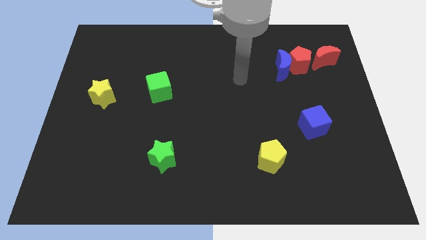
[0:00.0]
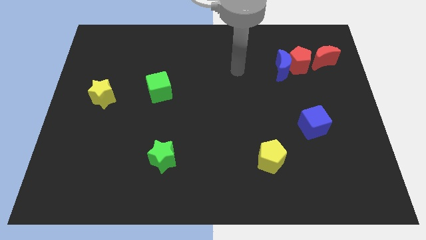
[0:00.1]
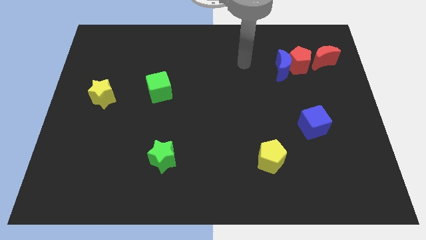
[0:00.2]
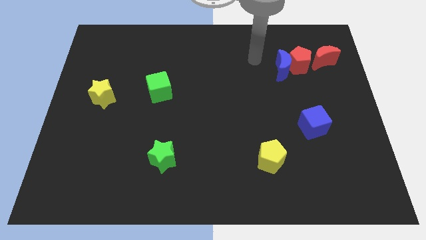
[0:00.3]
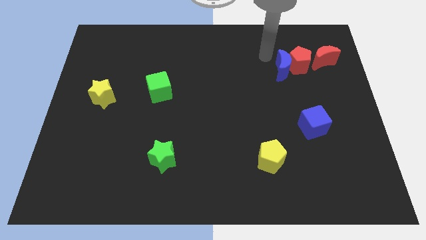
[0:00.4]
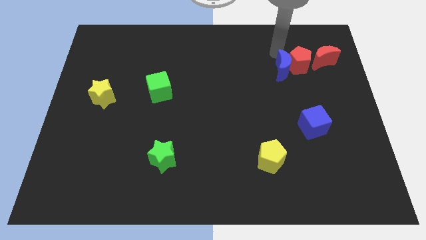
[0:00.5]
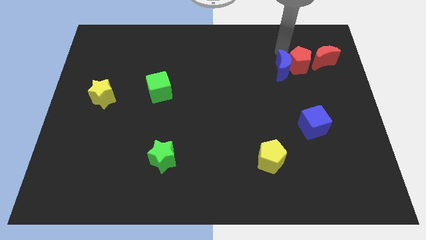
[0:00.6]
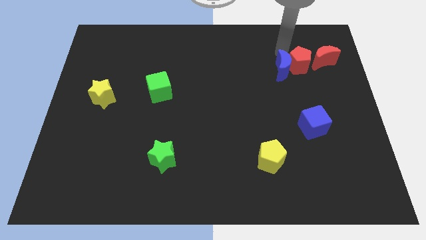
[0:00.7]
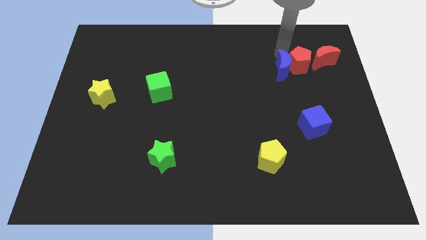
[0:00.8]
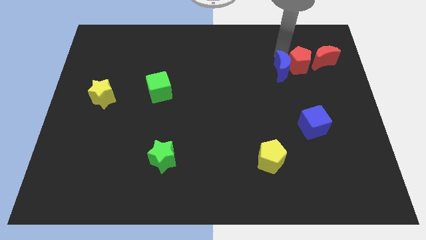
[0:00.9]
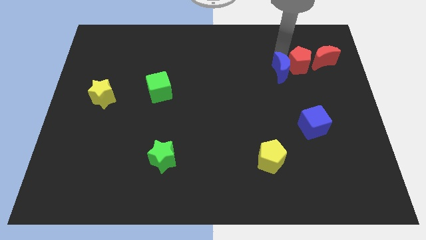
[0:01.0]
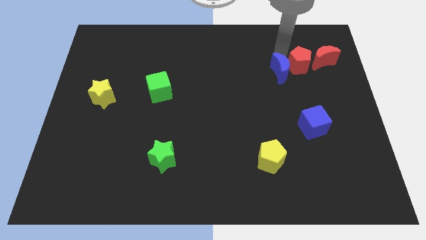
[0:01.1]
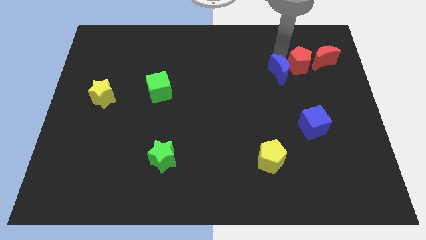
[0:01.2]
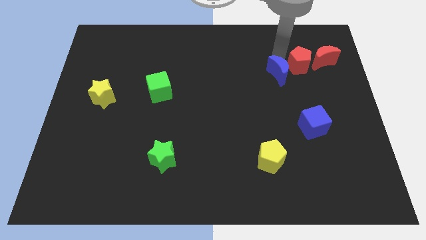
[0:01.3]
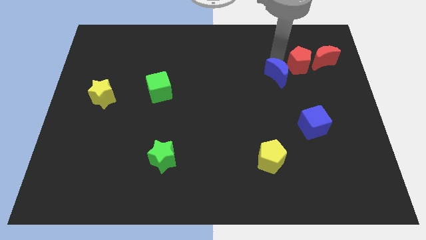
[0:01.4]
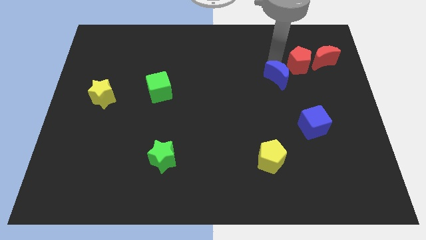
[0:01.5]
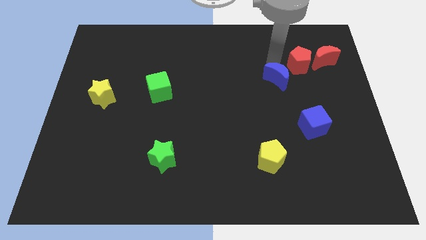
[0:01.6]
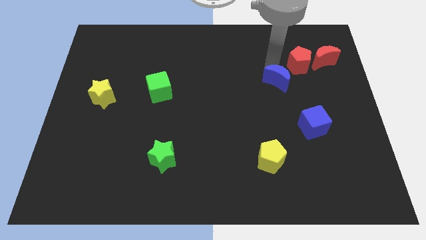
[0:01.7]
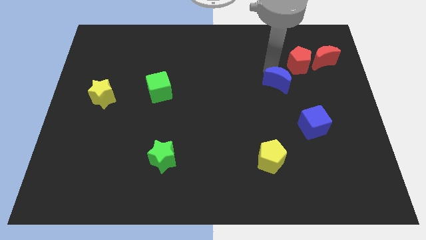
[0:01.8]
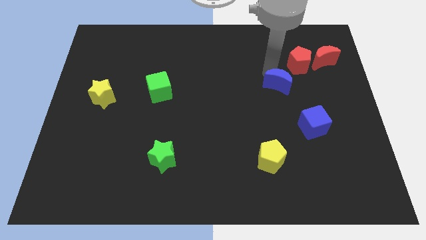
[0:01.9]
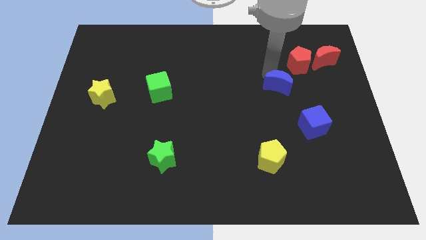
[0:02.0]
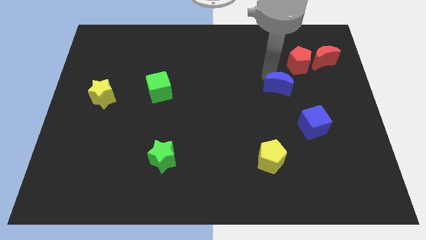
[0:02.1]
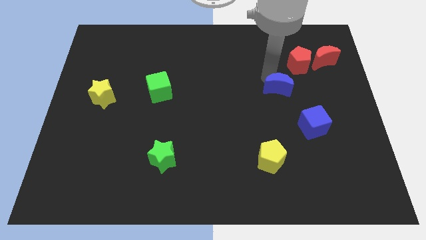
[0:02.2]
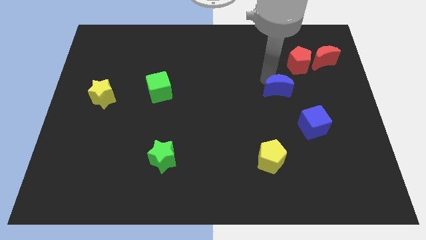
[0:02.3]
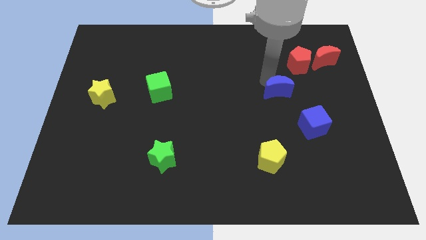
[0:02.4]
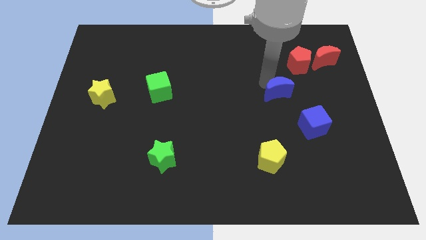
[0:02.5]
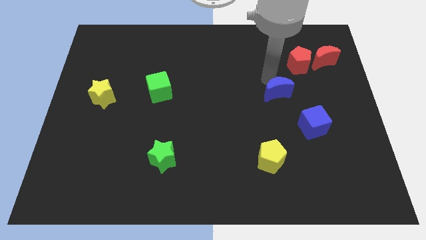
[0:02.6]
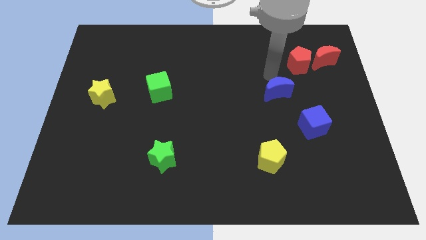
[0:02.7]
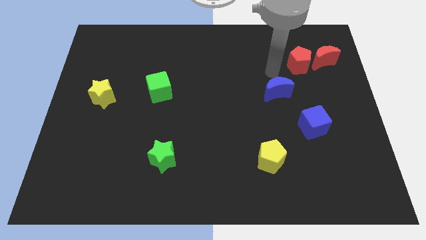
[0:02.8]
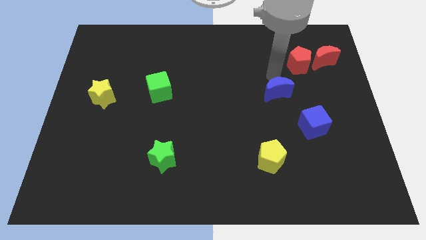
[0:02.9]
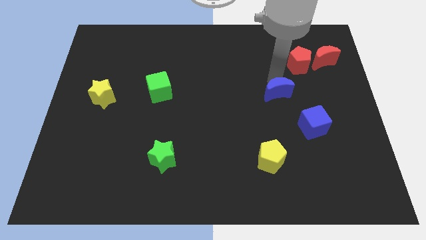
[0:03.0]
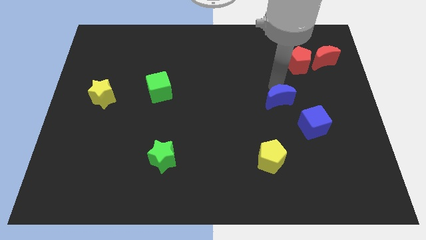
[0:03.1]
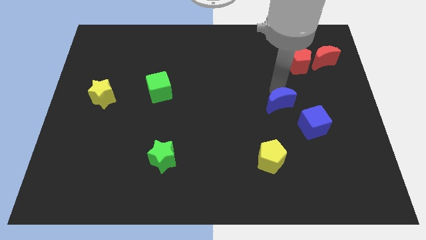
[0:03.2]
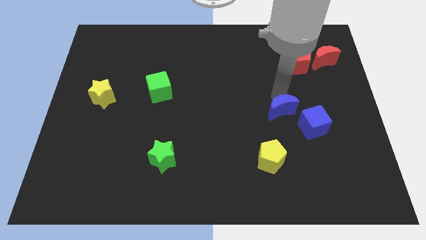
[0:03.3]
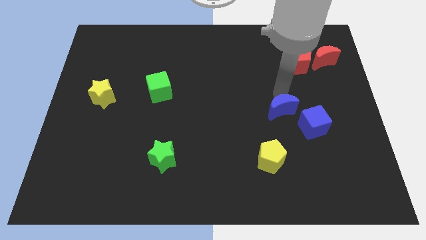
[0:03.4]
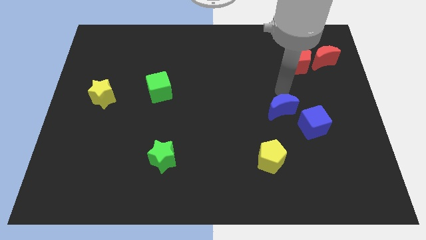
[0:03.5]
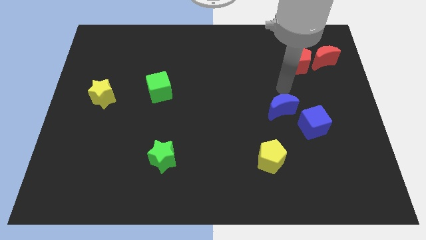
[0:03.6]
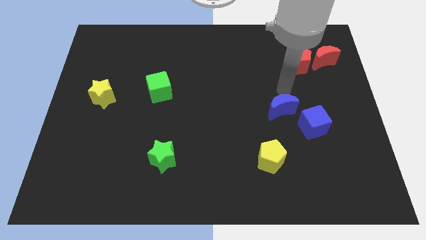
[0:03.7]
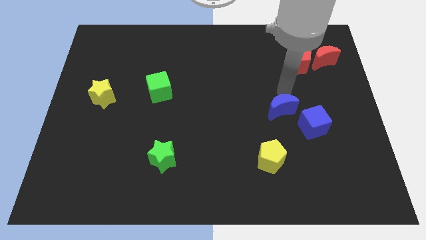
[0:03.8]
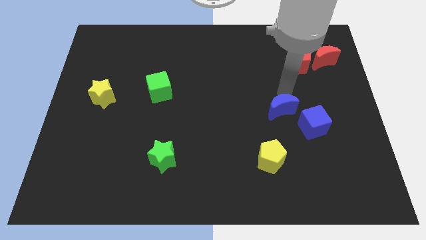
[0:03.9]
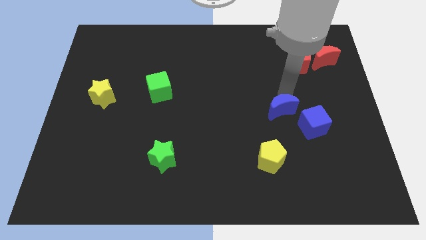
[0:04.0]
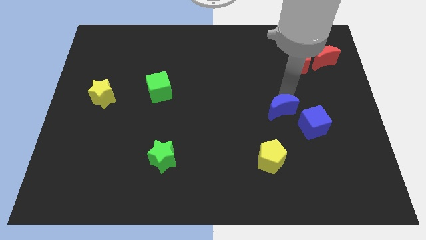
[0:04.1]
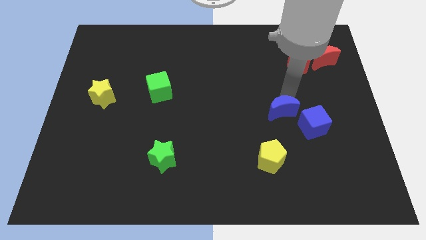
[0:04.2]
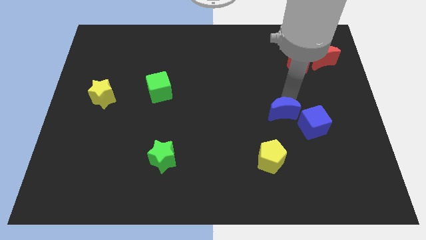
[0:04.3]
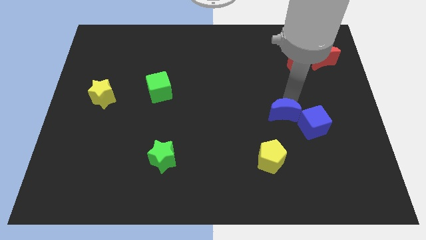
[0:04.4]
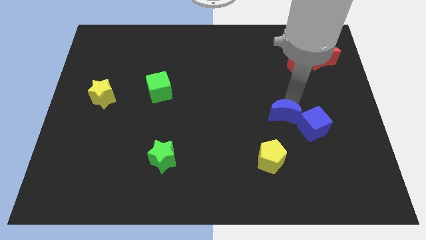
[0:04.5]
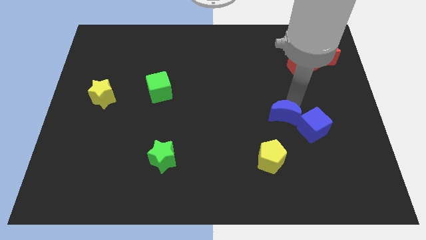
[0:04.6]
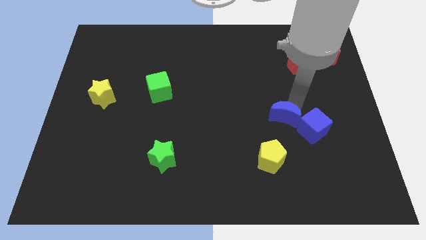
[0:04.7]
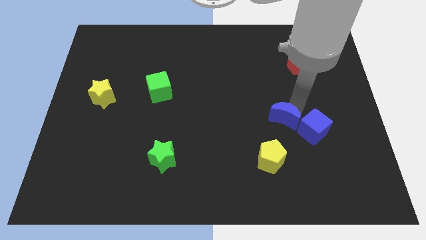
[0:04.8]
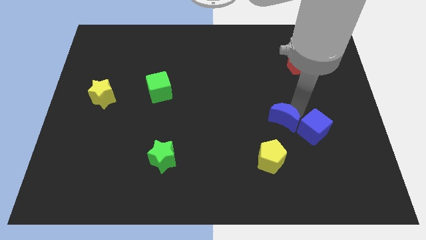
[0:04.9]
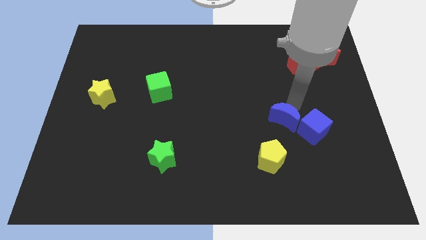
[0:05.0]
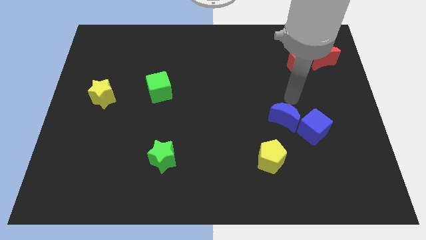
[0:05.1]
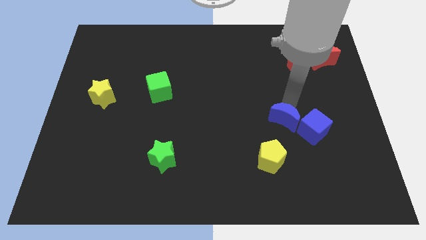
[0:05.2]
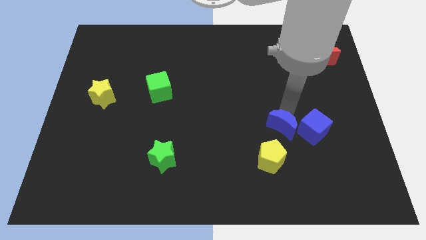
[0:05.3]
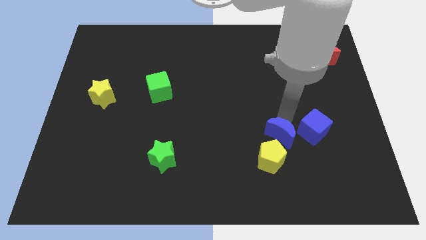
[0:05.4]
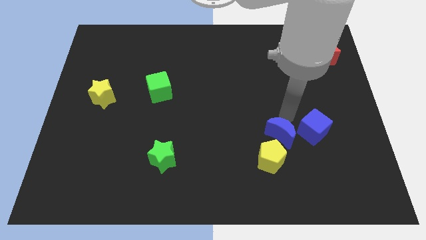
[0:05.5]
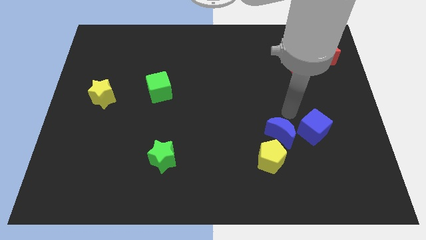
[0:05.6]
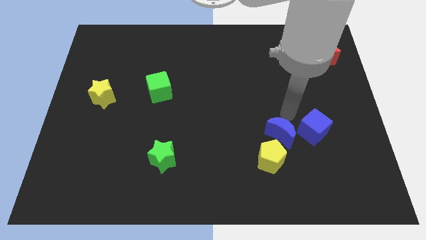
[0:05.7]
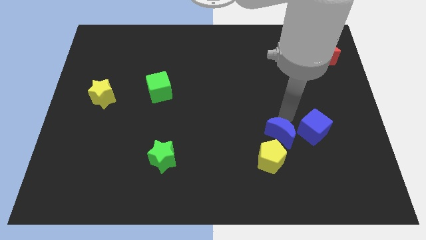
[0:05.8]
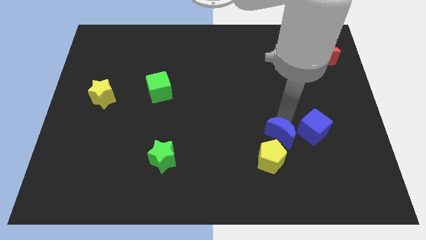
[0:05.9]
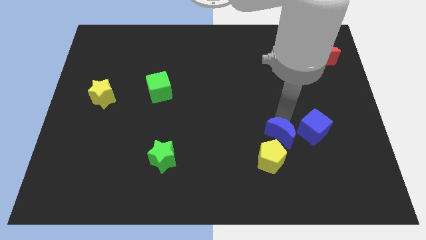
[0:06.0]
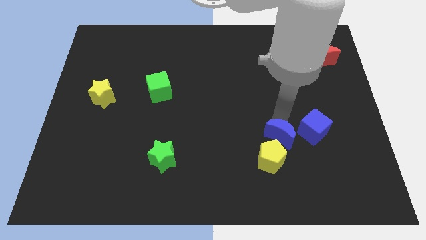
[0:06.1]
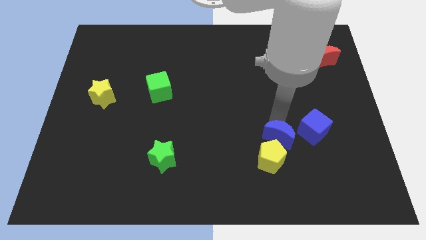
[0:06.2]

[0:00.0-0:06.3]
put the blue moon close to the yellow pentagon
